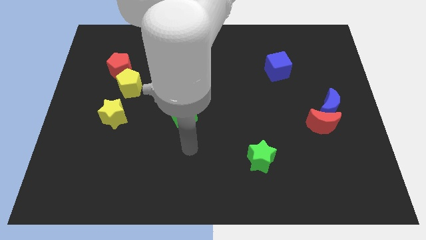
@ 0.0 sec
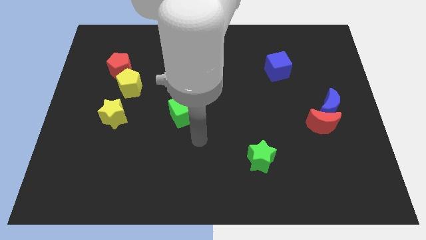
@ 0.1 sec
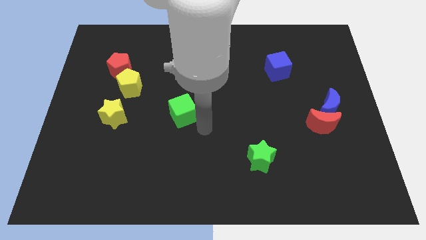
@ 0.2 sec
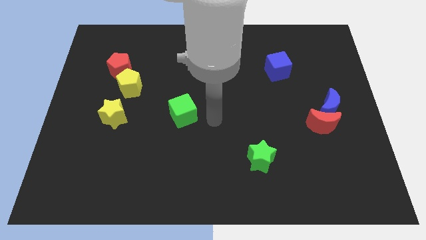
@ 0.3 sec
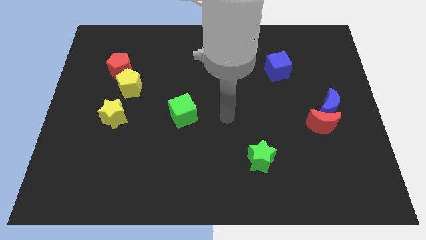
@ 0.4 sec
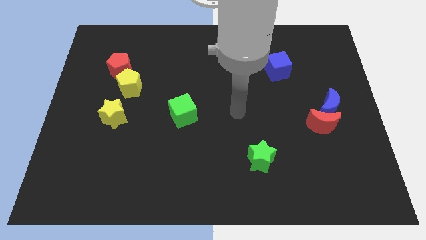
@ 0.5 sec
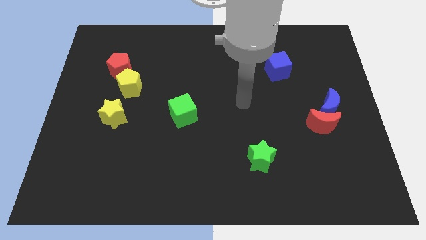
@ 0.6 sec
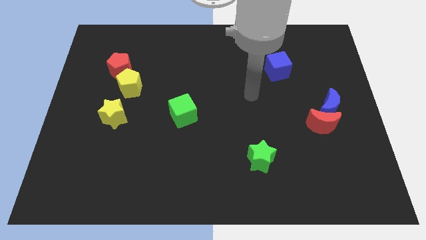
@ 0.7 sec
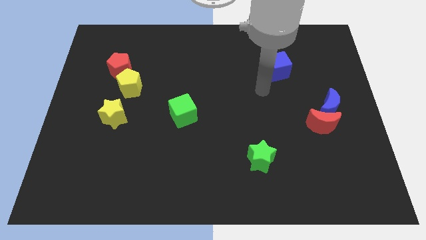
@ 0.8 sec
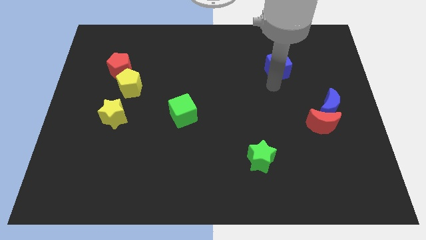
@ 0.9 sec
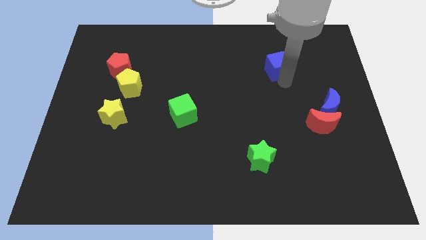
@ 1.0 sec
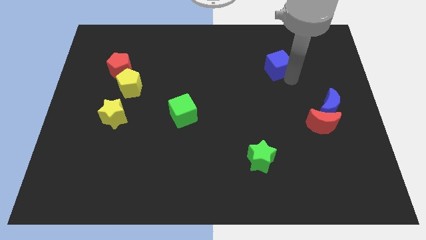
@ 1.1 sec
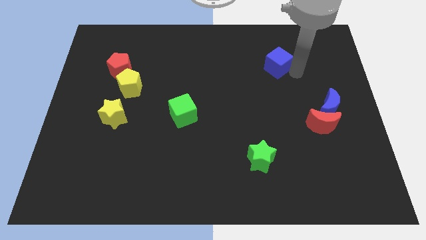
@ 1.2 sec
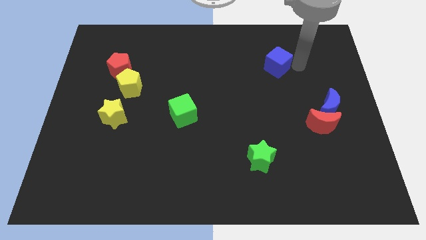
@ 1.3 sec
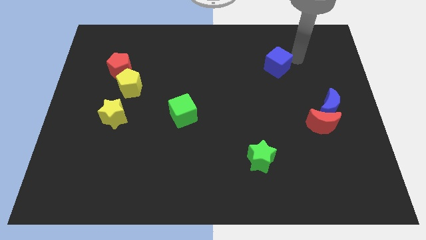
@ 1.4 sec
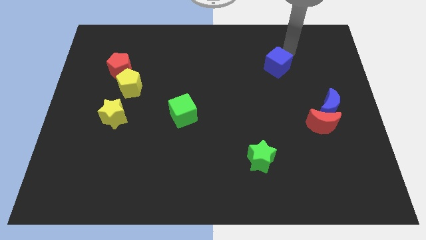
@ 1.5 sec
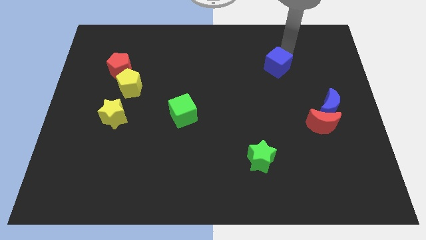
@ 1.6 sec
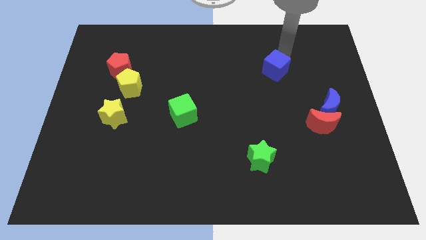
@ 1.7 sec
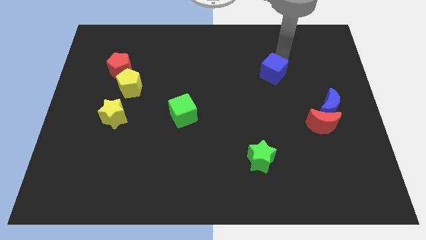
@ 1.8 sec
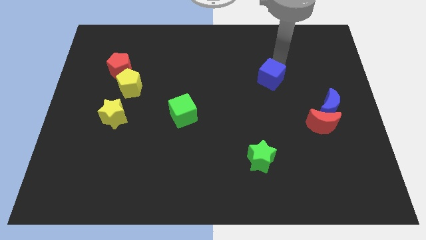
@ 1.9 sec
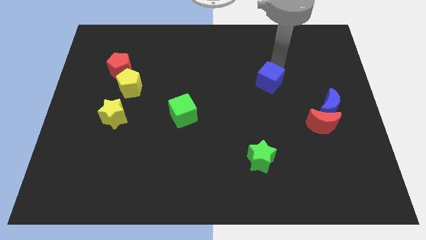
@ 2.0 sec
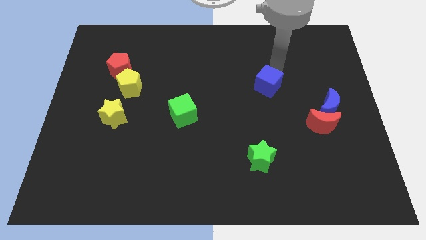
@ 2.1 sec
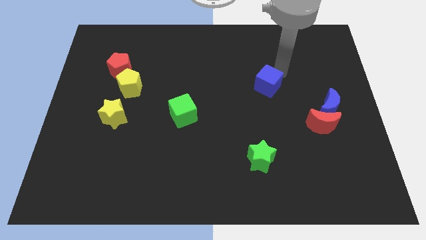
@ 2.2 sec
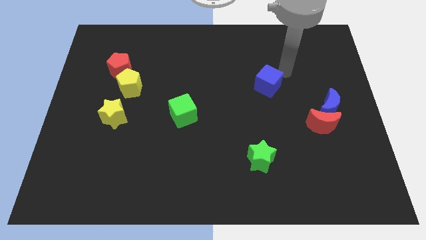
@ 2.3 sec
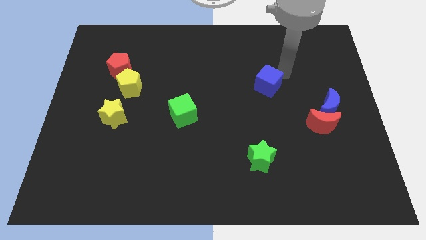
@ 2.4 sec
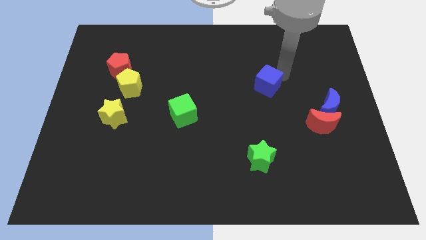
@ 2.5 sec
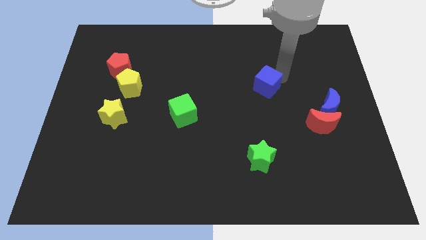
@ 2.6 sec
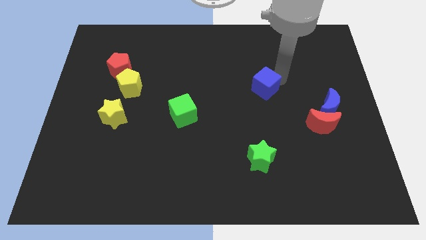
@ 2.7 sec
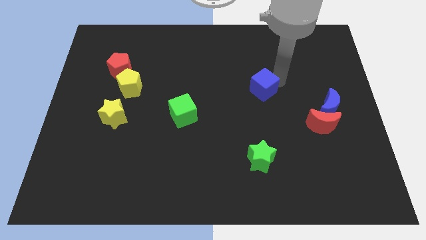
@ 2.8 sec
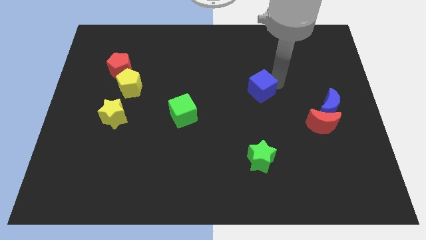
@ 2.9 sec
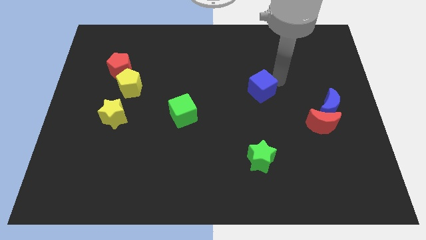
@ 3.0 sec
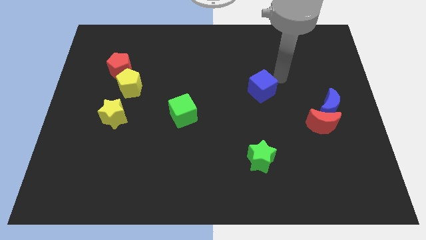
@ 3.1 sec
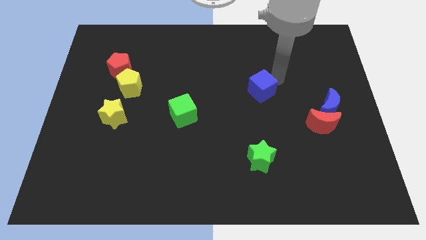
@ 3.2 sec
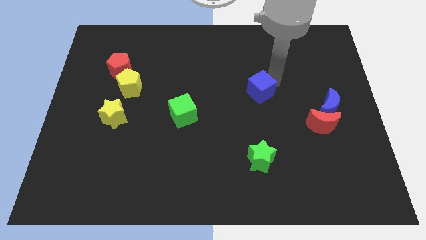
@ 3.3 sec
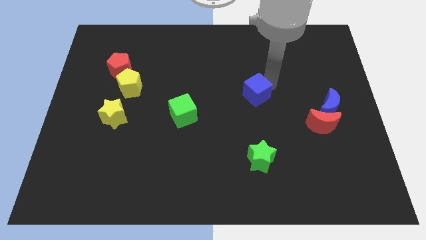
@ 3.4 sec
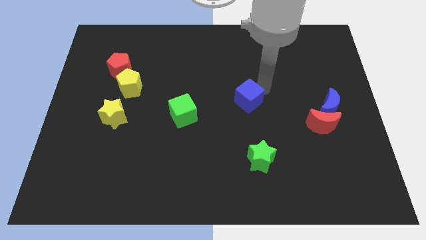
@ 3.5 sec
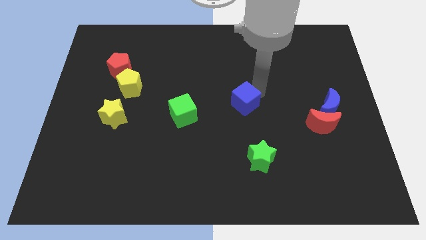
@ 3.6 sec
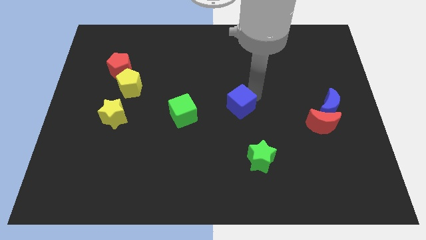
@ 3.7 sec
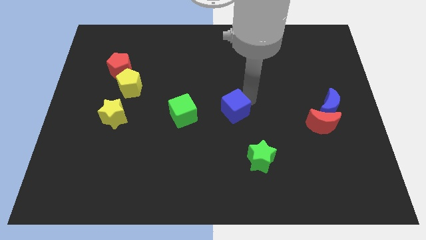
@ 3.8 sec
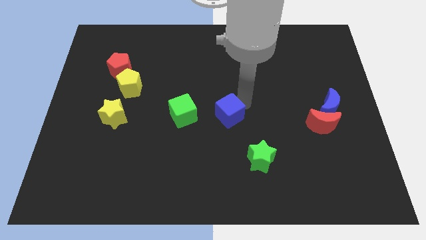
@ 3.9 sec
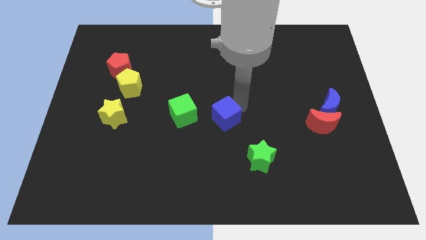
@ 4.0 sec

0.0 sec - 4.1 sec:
push the blue cube downwards and then left

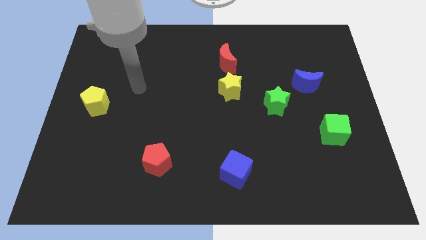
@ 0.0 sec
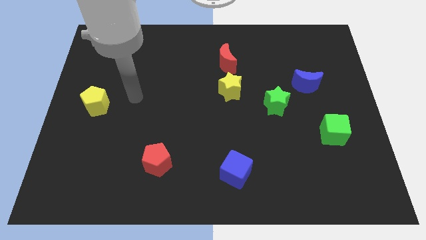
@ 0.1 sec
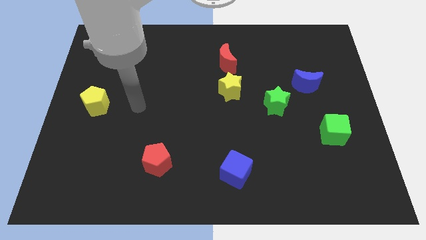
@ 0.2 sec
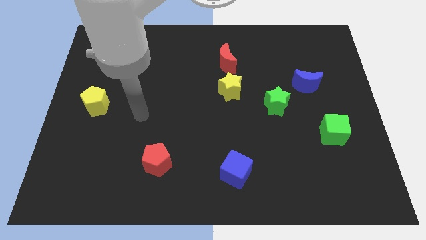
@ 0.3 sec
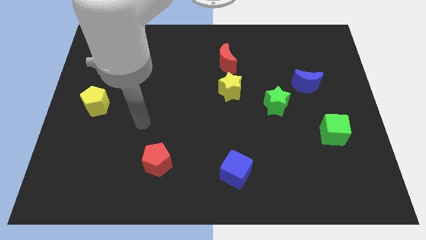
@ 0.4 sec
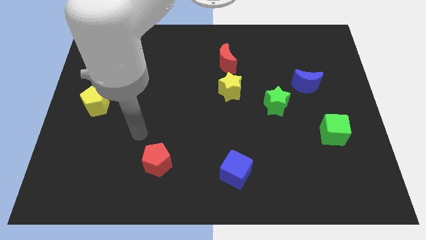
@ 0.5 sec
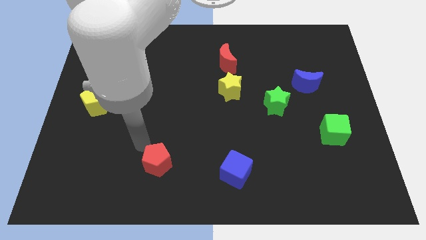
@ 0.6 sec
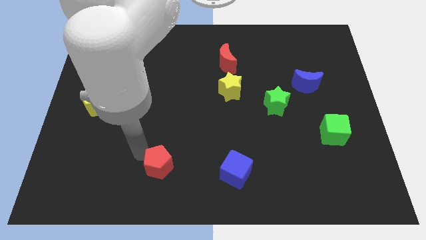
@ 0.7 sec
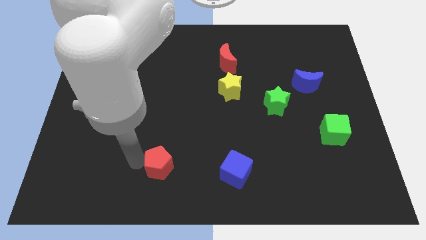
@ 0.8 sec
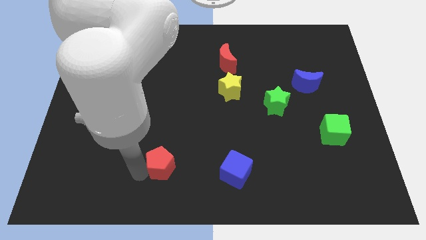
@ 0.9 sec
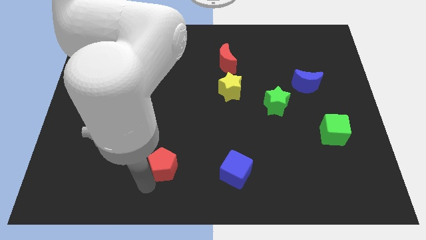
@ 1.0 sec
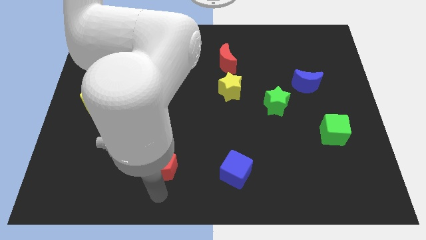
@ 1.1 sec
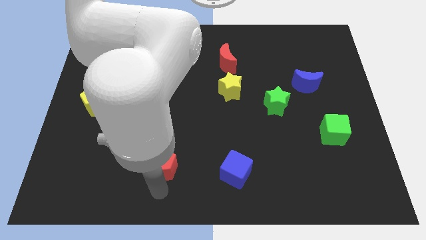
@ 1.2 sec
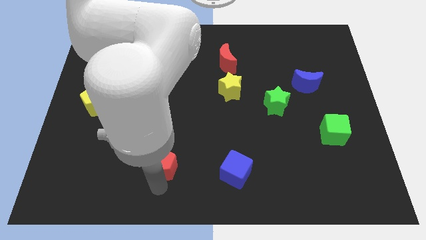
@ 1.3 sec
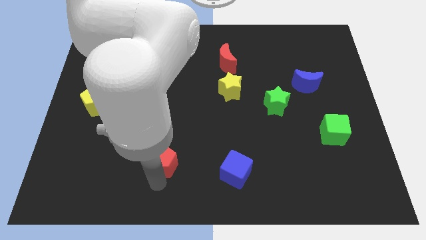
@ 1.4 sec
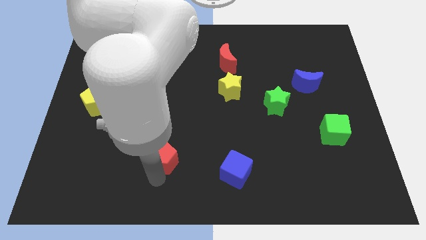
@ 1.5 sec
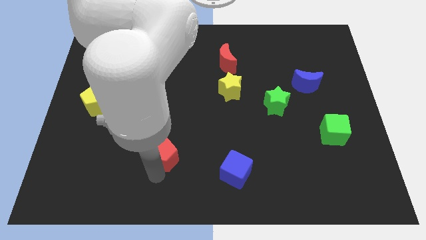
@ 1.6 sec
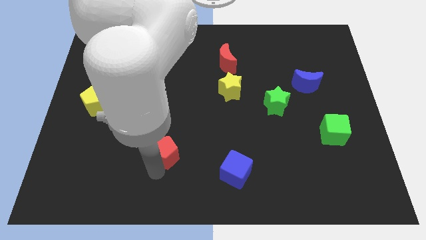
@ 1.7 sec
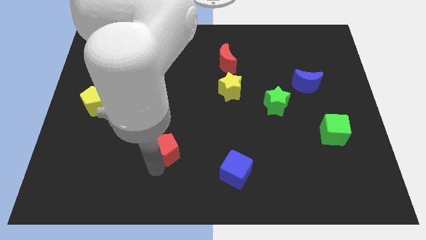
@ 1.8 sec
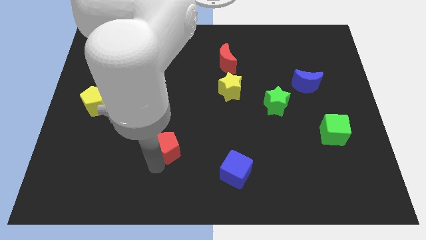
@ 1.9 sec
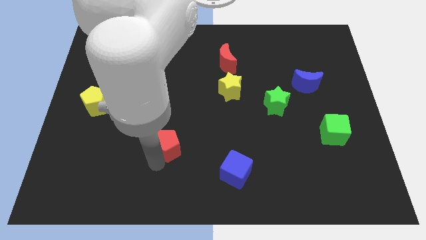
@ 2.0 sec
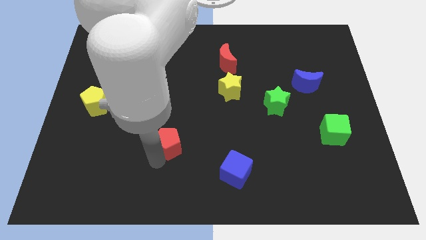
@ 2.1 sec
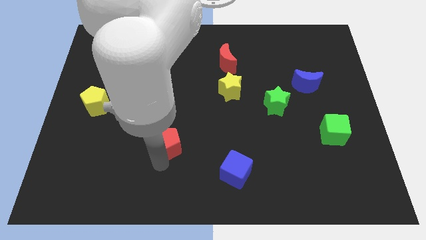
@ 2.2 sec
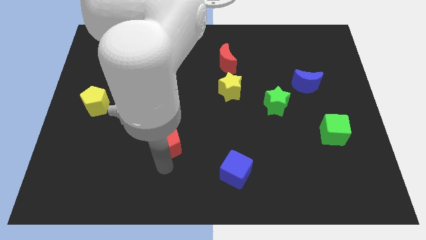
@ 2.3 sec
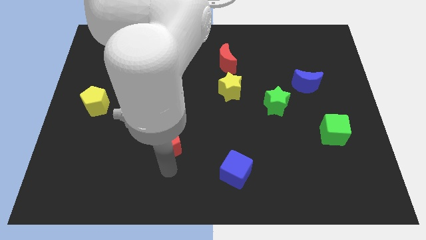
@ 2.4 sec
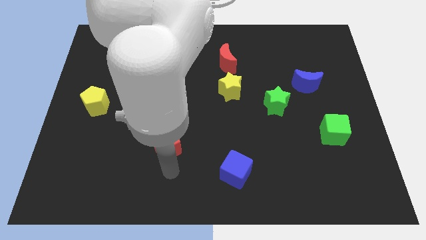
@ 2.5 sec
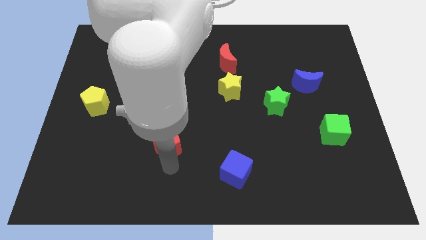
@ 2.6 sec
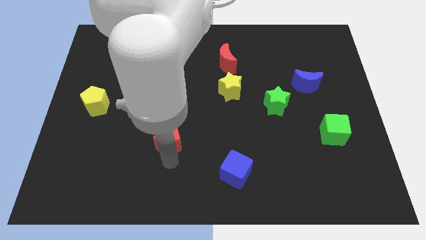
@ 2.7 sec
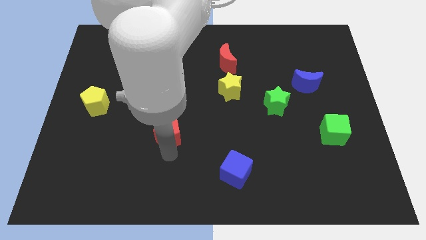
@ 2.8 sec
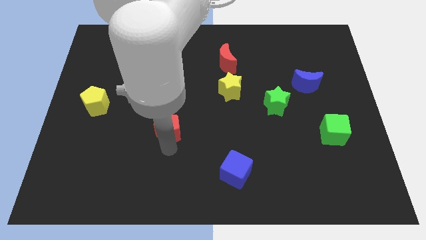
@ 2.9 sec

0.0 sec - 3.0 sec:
move the red pentagon upwards slightly

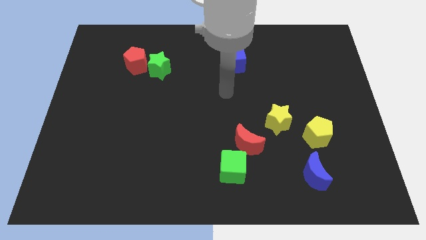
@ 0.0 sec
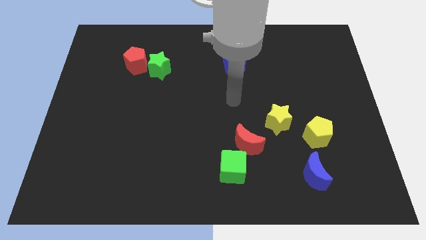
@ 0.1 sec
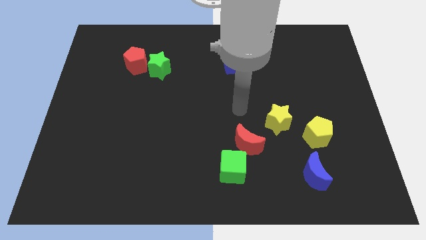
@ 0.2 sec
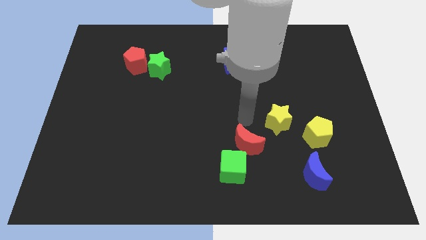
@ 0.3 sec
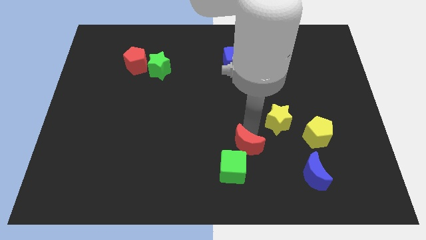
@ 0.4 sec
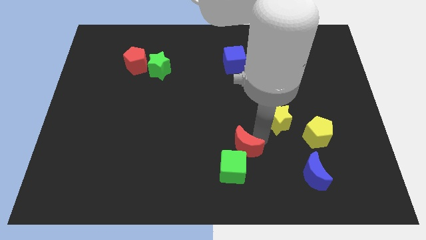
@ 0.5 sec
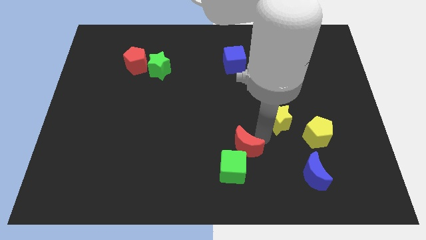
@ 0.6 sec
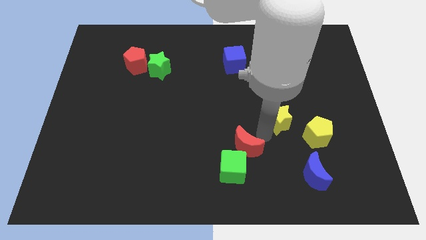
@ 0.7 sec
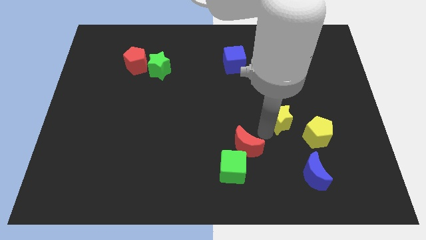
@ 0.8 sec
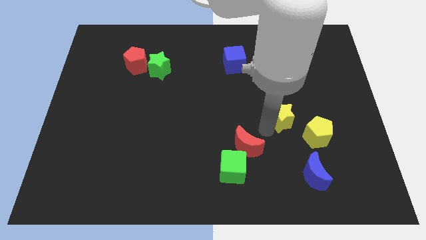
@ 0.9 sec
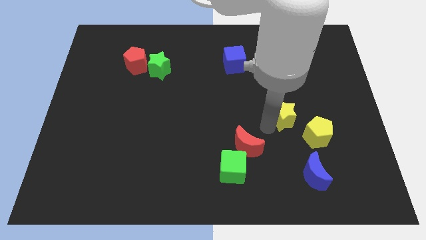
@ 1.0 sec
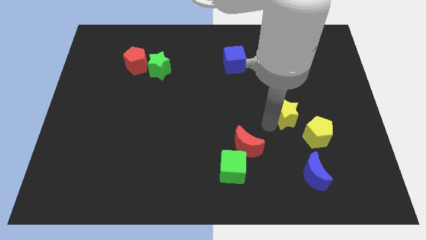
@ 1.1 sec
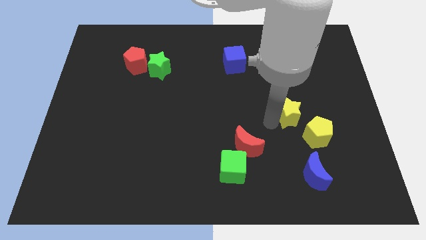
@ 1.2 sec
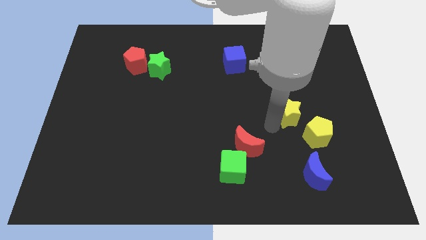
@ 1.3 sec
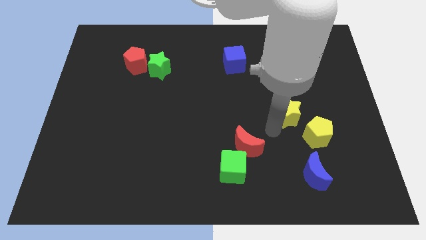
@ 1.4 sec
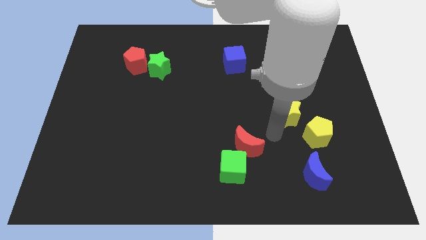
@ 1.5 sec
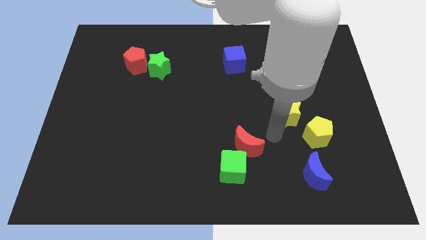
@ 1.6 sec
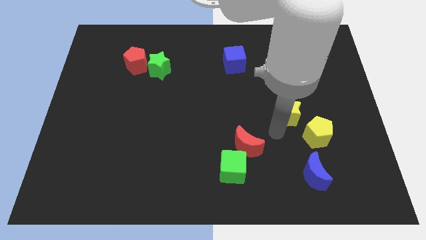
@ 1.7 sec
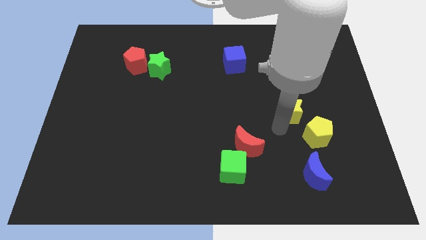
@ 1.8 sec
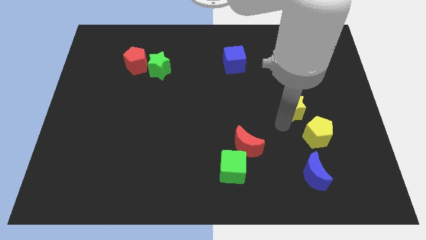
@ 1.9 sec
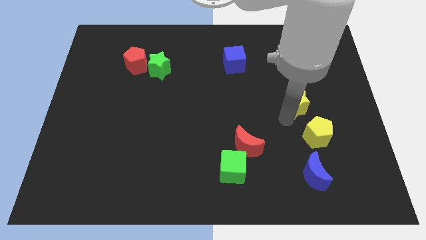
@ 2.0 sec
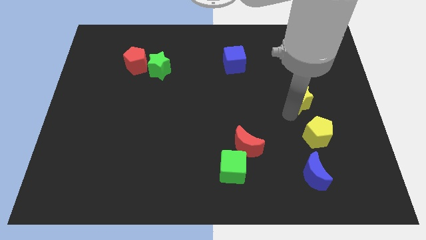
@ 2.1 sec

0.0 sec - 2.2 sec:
slightly slide the yellow star up and right
